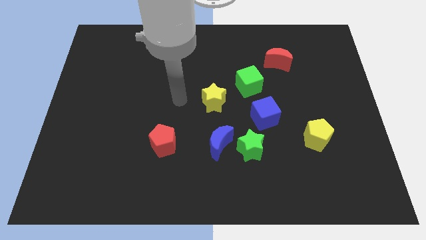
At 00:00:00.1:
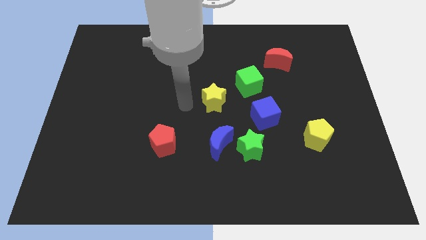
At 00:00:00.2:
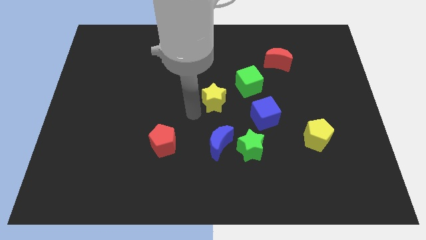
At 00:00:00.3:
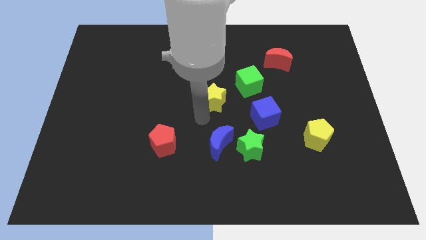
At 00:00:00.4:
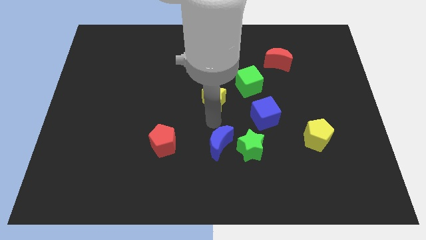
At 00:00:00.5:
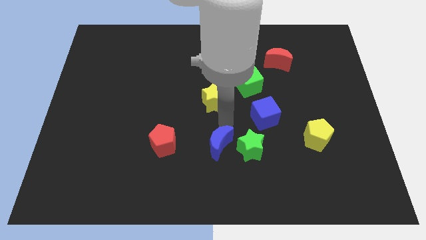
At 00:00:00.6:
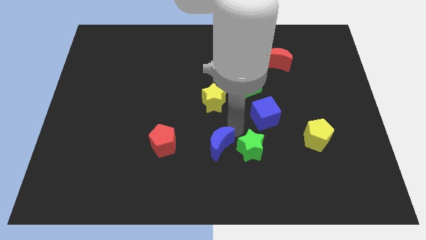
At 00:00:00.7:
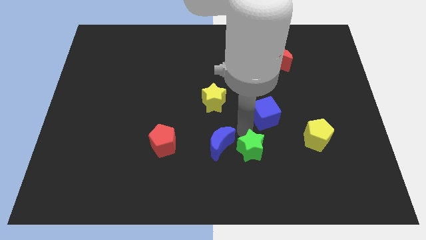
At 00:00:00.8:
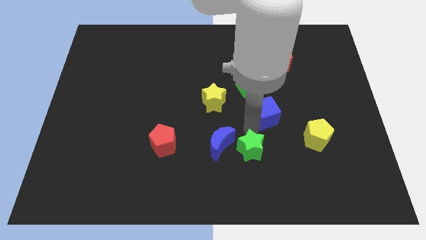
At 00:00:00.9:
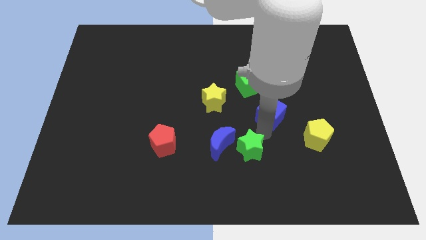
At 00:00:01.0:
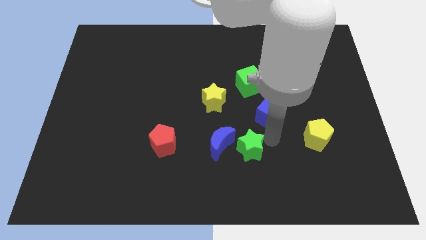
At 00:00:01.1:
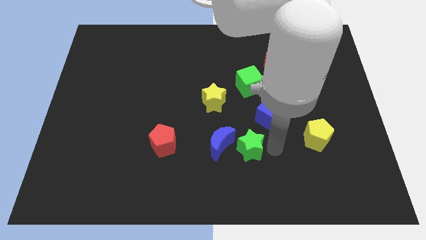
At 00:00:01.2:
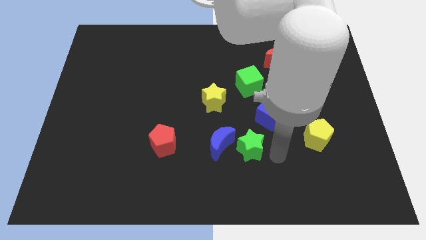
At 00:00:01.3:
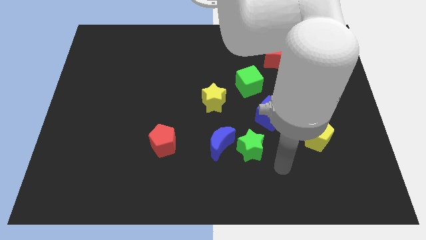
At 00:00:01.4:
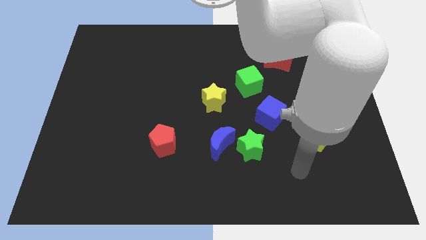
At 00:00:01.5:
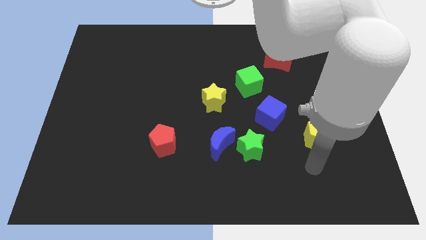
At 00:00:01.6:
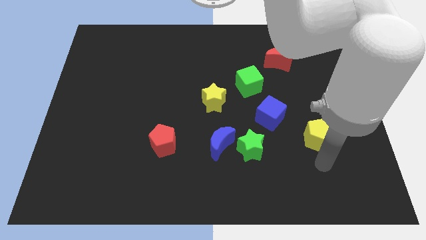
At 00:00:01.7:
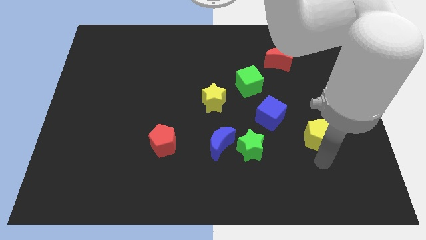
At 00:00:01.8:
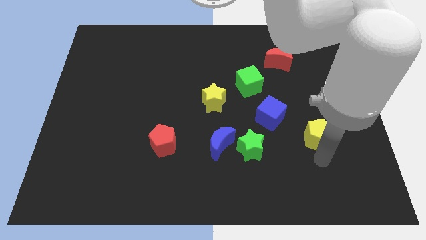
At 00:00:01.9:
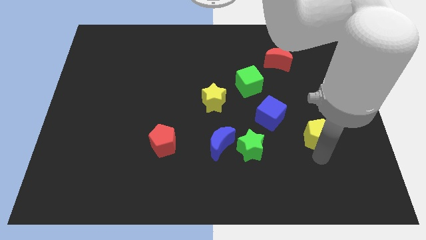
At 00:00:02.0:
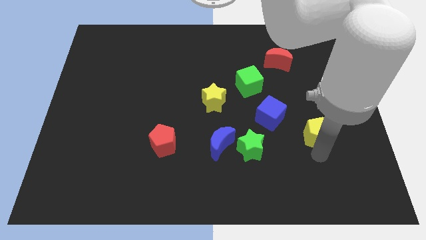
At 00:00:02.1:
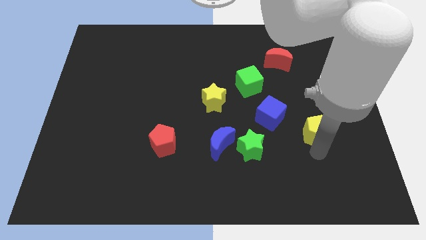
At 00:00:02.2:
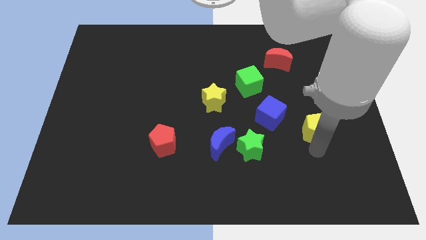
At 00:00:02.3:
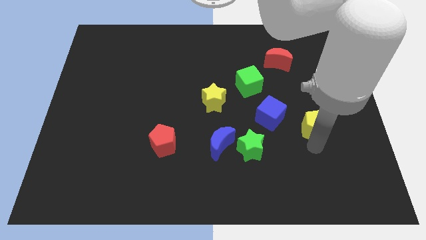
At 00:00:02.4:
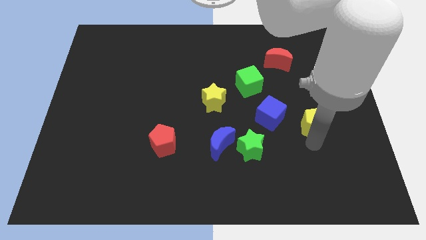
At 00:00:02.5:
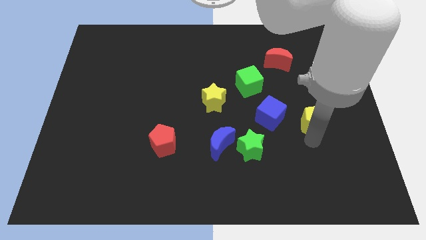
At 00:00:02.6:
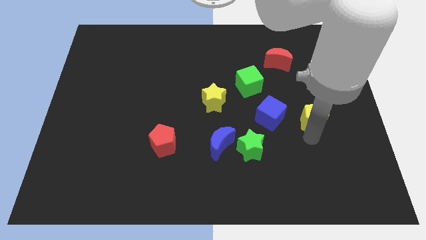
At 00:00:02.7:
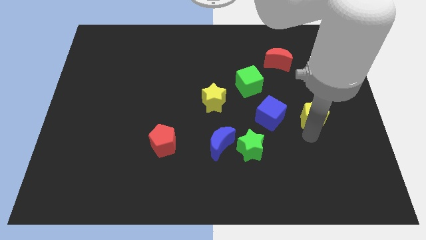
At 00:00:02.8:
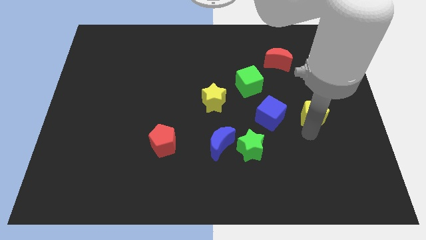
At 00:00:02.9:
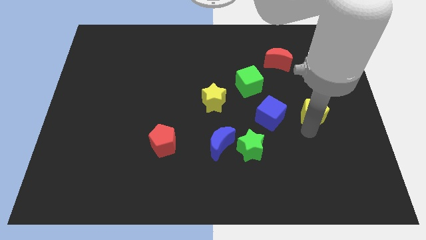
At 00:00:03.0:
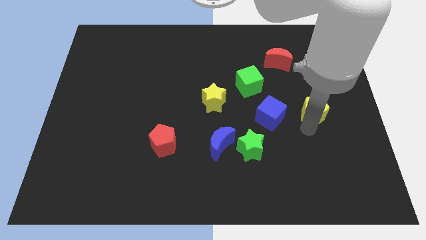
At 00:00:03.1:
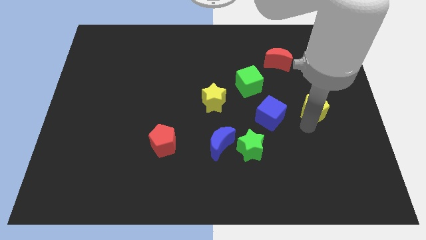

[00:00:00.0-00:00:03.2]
slightly move the yellow pentagon upwards

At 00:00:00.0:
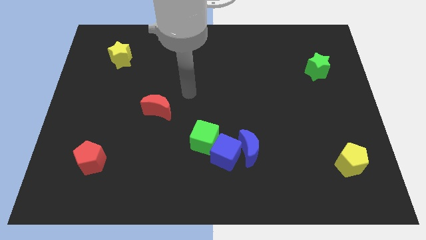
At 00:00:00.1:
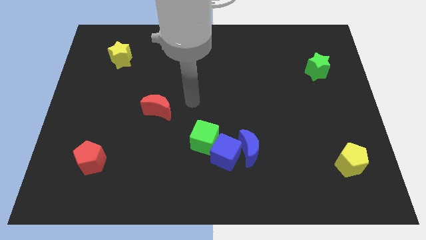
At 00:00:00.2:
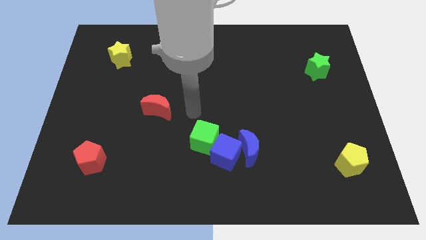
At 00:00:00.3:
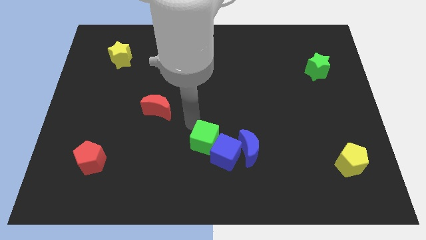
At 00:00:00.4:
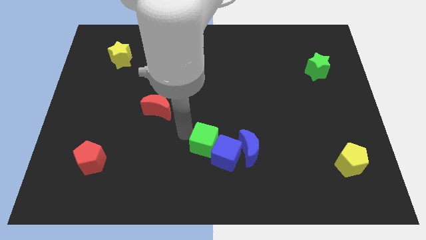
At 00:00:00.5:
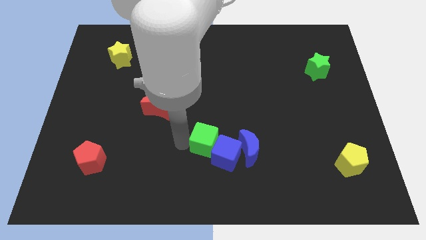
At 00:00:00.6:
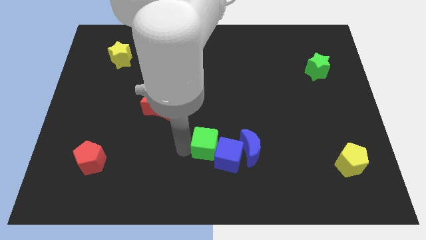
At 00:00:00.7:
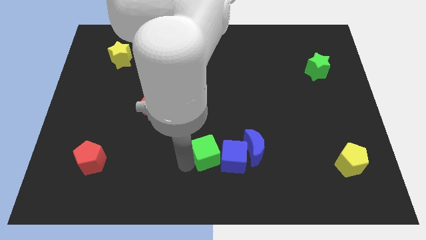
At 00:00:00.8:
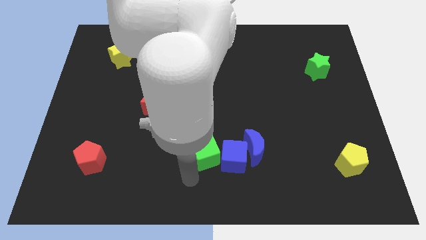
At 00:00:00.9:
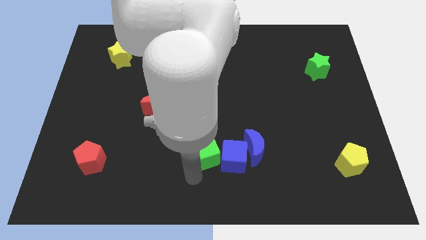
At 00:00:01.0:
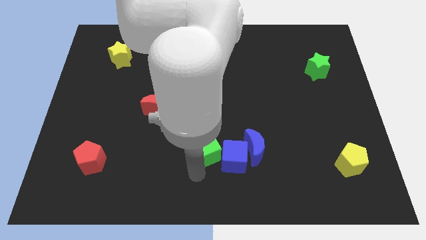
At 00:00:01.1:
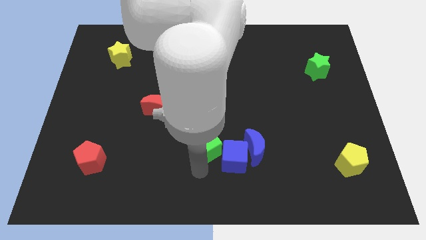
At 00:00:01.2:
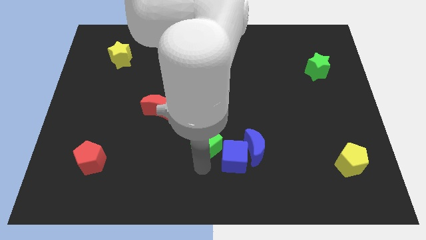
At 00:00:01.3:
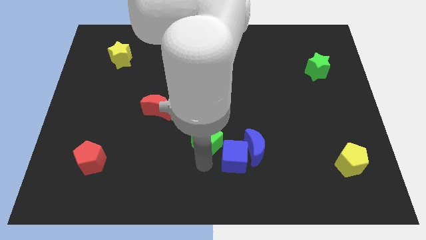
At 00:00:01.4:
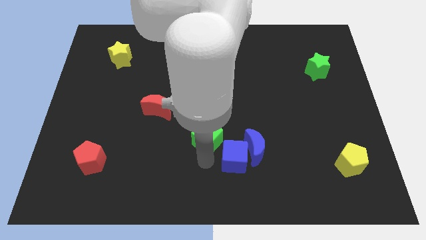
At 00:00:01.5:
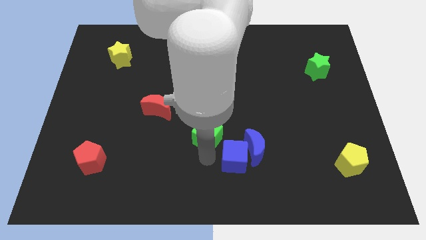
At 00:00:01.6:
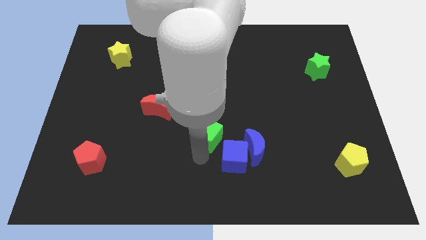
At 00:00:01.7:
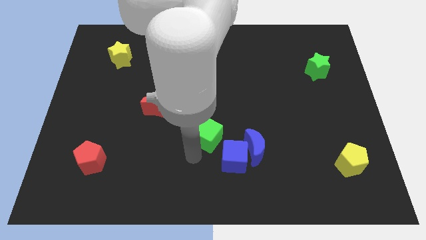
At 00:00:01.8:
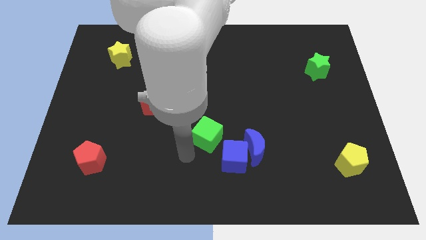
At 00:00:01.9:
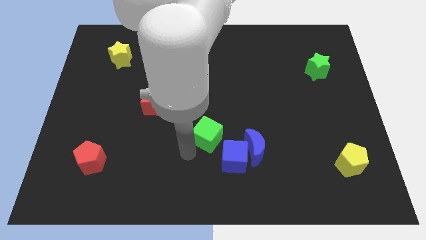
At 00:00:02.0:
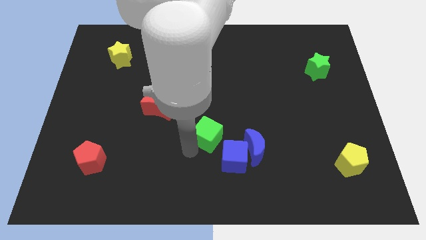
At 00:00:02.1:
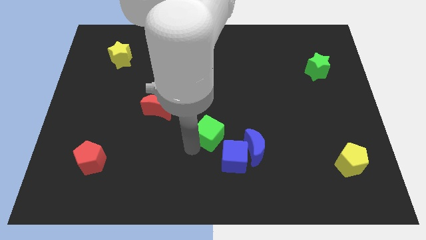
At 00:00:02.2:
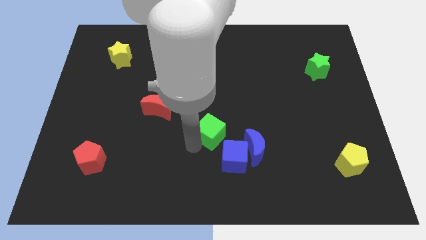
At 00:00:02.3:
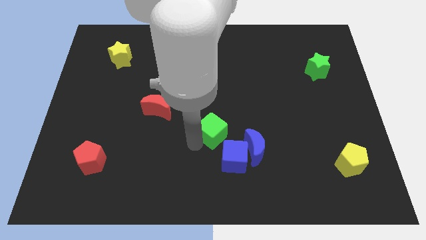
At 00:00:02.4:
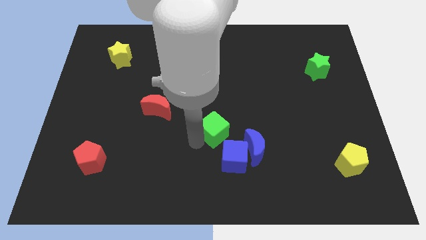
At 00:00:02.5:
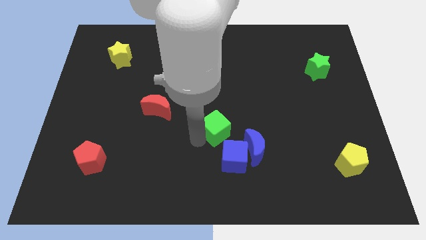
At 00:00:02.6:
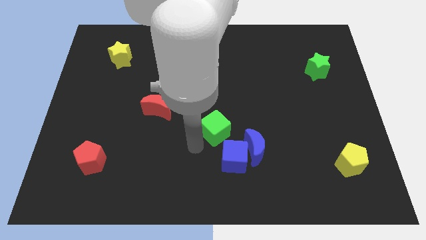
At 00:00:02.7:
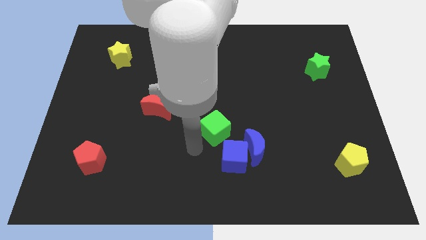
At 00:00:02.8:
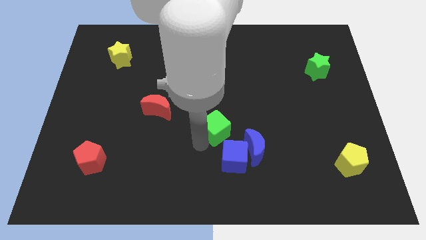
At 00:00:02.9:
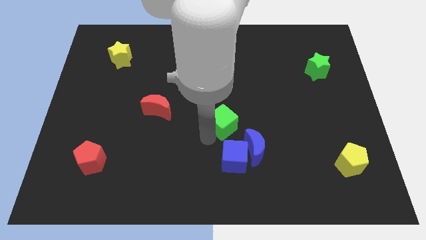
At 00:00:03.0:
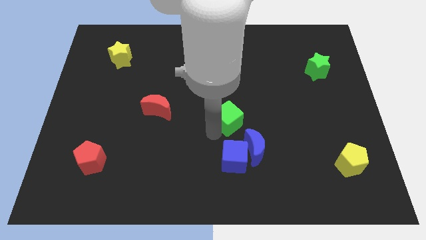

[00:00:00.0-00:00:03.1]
slightly slide the green cube diagonally upwards and right

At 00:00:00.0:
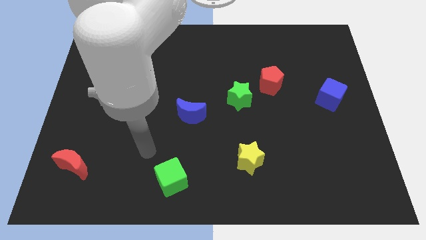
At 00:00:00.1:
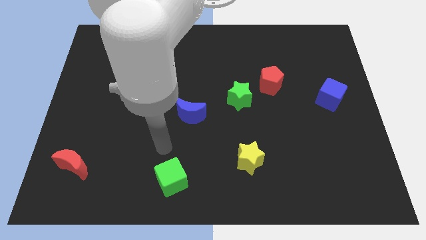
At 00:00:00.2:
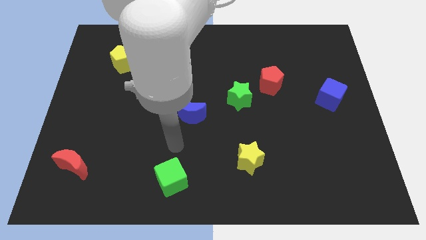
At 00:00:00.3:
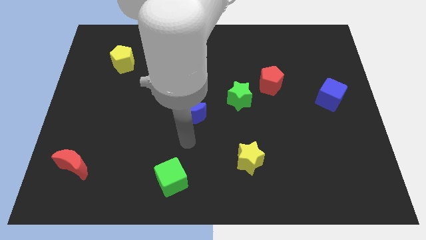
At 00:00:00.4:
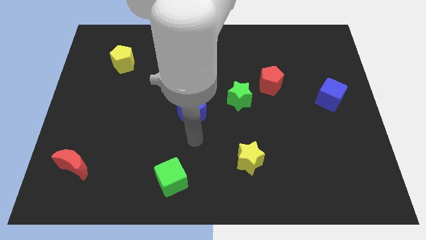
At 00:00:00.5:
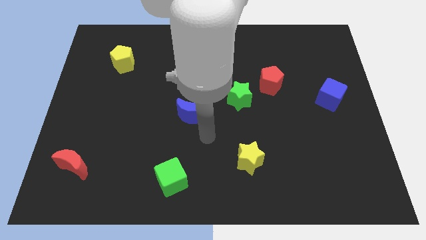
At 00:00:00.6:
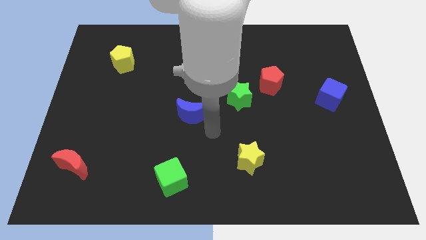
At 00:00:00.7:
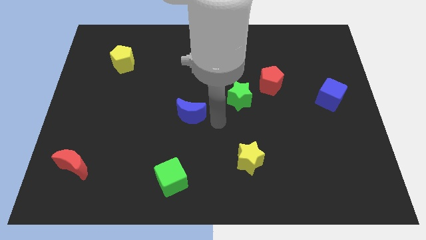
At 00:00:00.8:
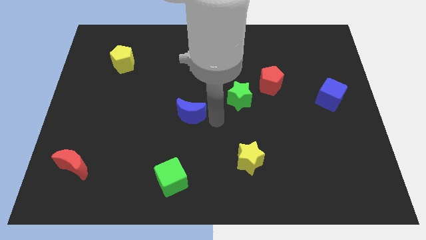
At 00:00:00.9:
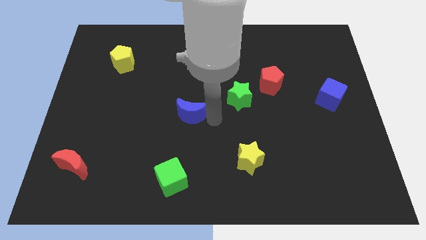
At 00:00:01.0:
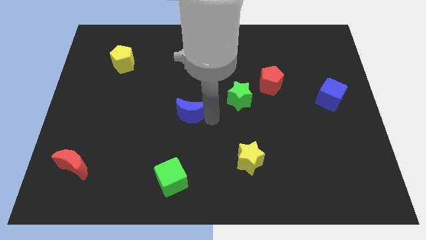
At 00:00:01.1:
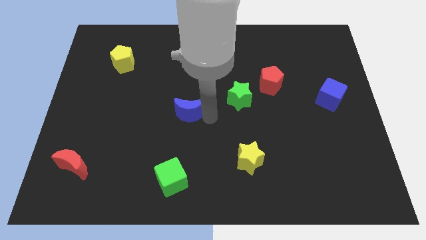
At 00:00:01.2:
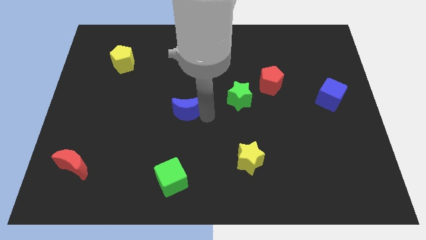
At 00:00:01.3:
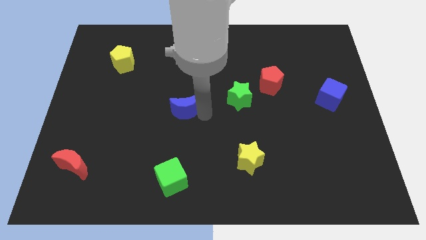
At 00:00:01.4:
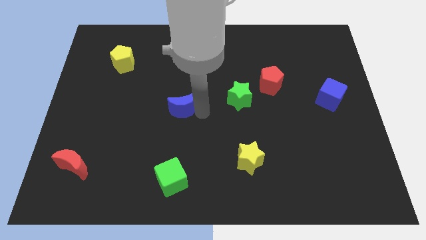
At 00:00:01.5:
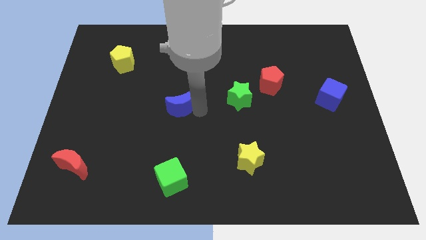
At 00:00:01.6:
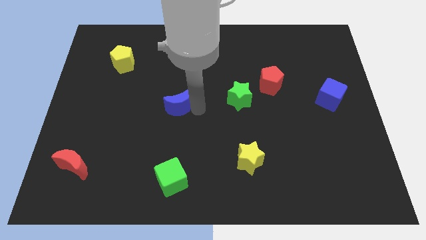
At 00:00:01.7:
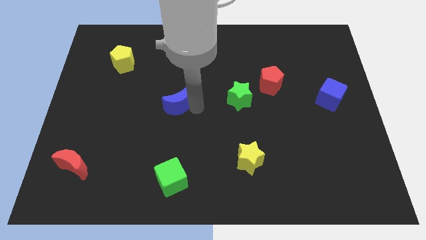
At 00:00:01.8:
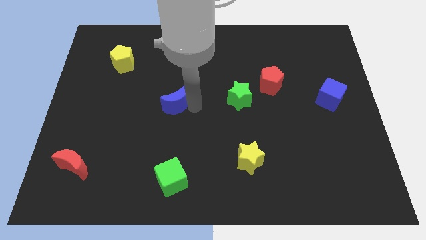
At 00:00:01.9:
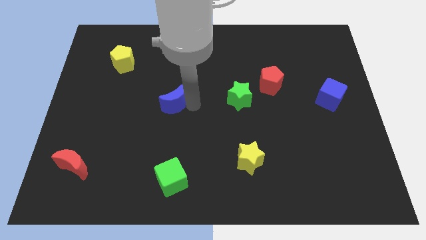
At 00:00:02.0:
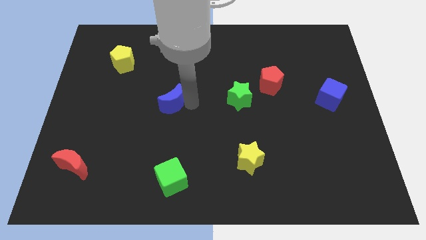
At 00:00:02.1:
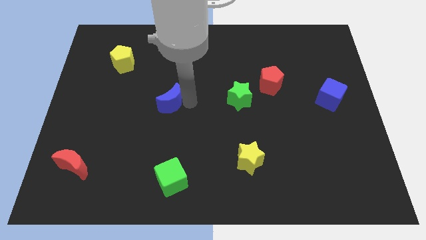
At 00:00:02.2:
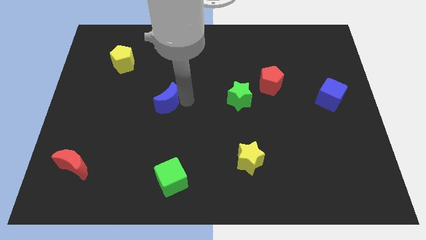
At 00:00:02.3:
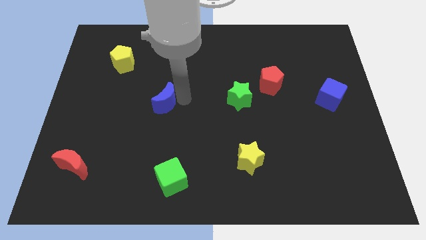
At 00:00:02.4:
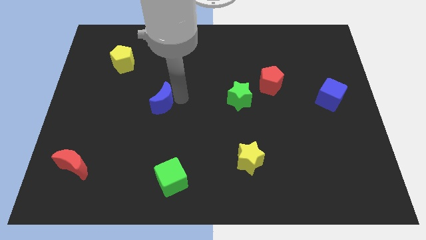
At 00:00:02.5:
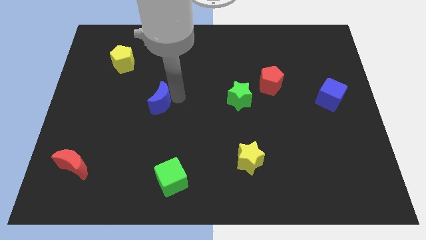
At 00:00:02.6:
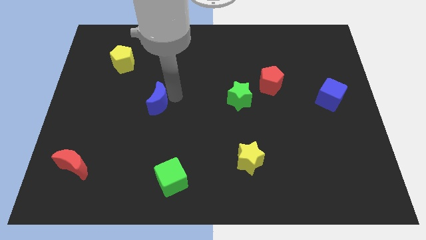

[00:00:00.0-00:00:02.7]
move the blue moon to the left somewhat
